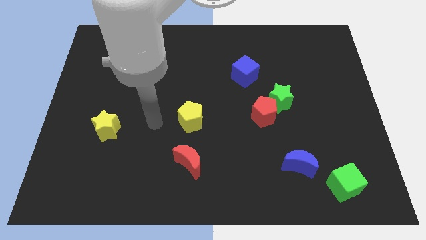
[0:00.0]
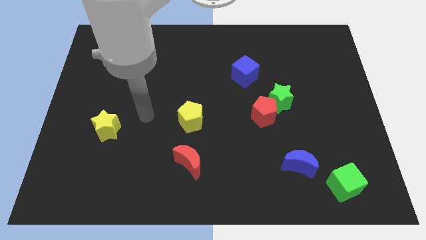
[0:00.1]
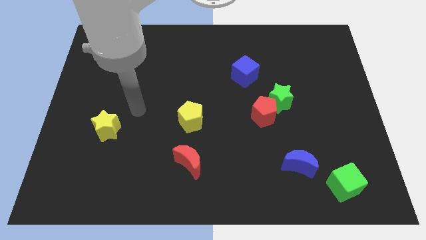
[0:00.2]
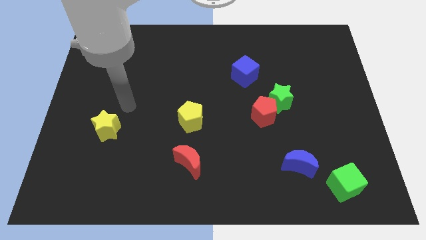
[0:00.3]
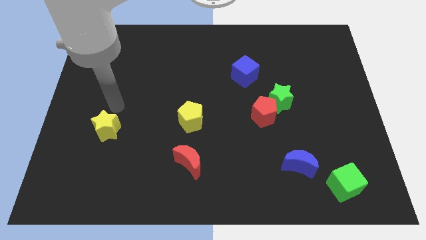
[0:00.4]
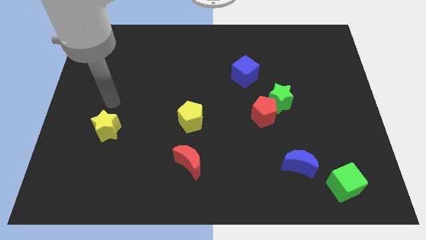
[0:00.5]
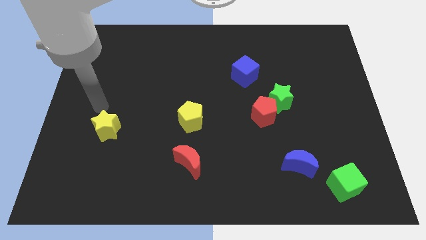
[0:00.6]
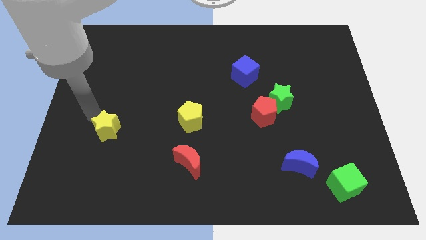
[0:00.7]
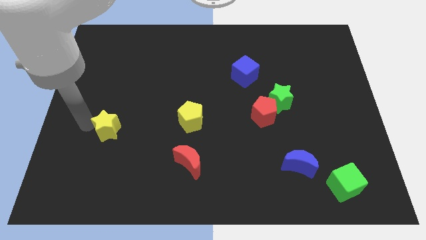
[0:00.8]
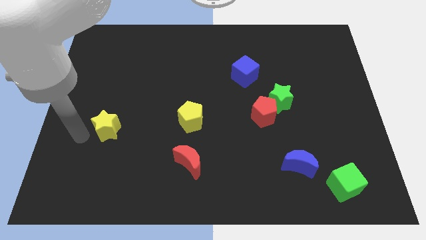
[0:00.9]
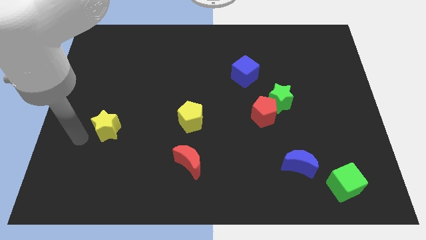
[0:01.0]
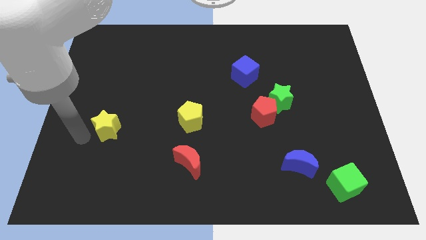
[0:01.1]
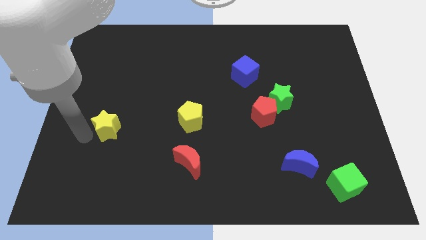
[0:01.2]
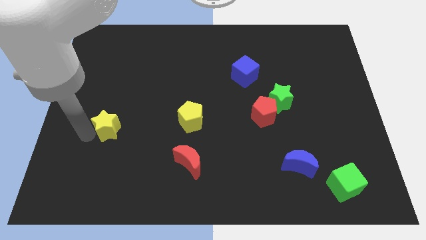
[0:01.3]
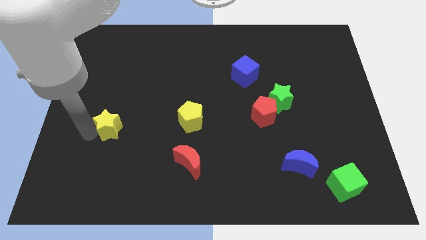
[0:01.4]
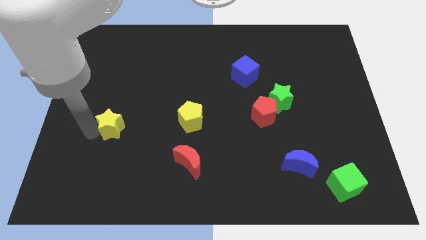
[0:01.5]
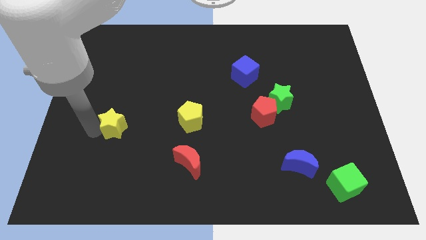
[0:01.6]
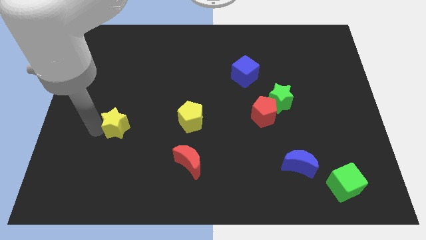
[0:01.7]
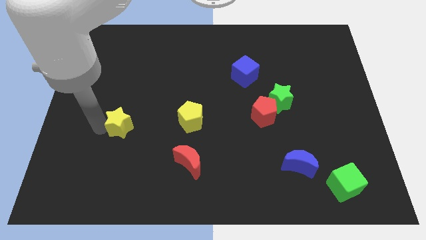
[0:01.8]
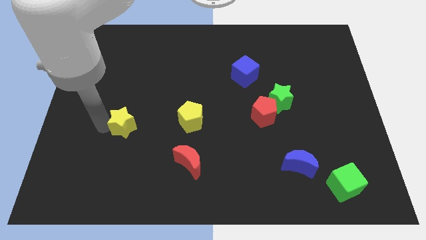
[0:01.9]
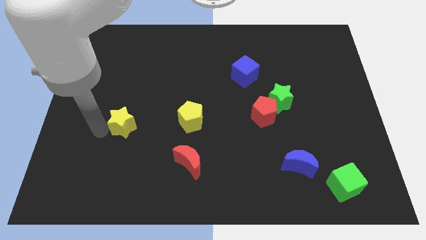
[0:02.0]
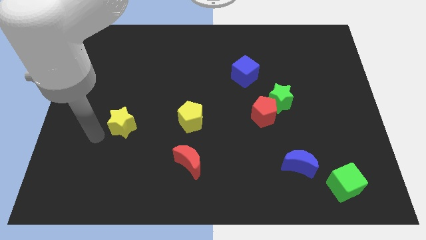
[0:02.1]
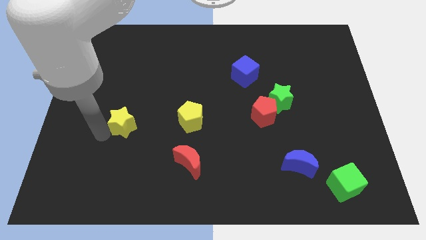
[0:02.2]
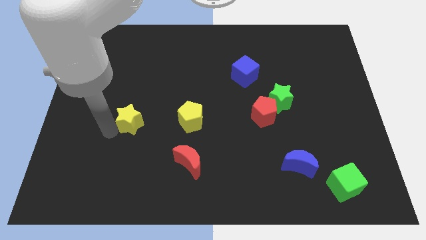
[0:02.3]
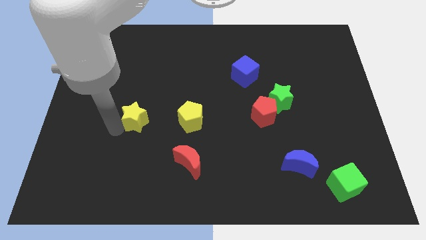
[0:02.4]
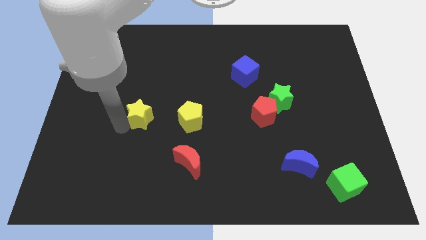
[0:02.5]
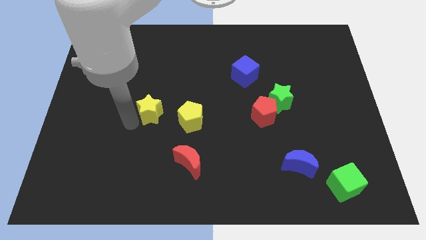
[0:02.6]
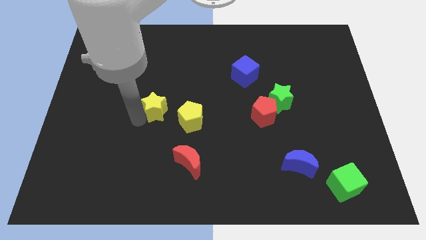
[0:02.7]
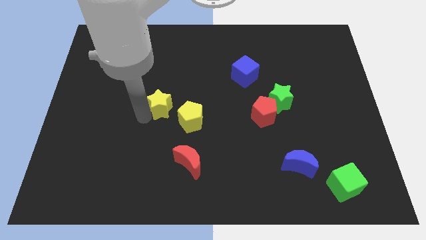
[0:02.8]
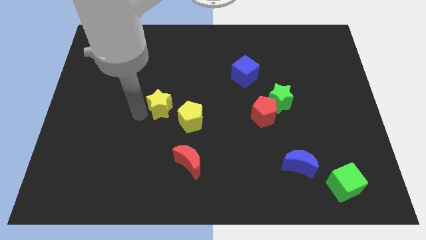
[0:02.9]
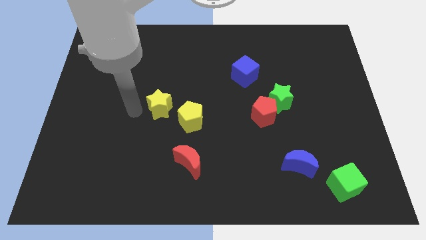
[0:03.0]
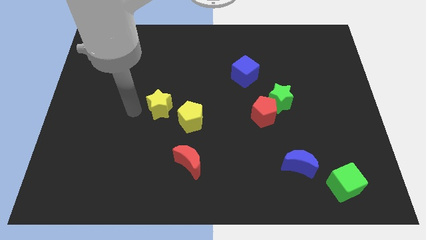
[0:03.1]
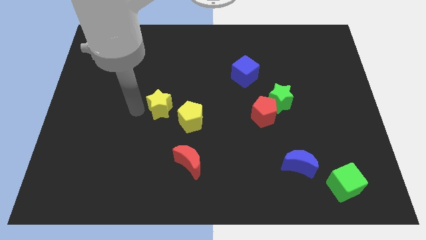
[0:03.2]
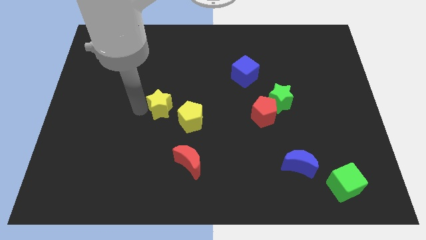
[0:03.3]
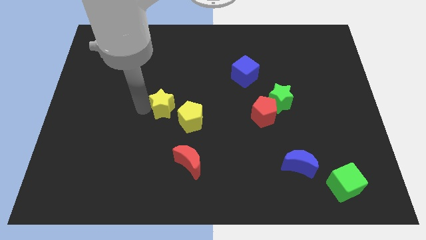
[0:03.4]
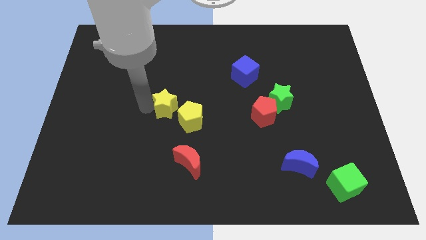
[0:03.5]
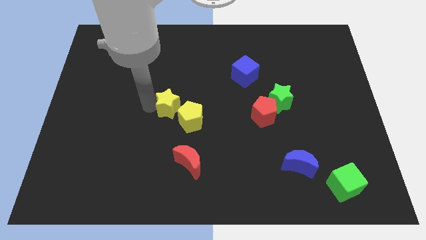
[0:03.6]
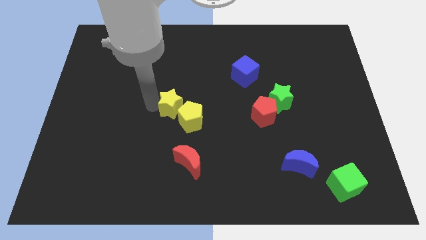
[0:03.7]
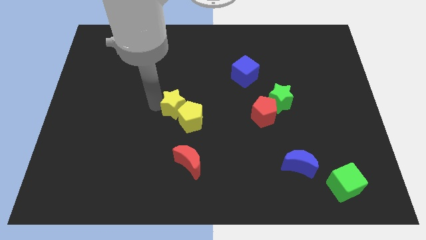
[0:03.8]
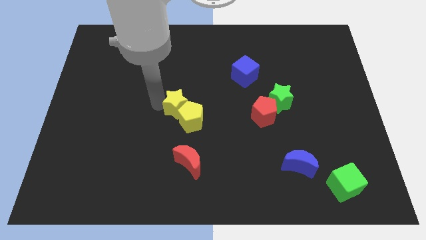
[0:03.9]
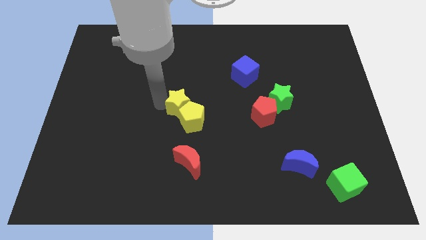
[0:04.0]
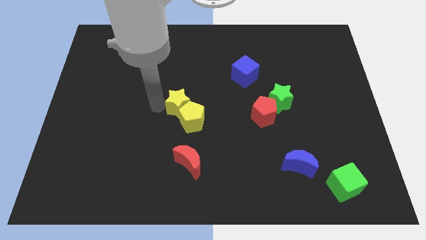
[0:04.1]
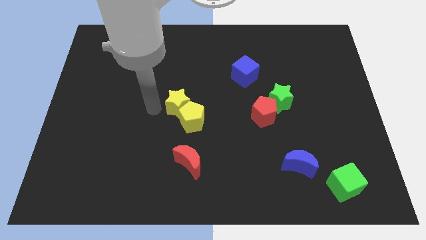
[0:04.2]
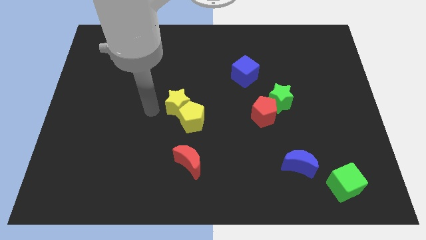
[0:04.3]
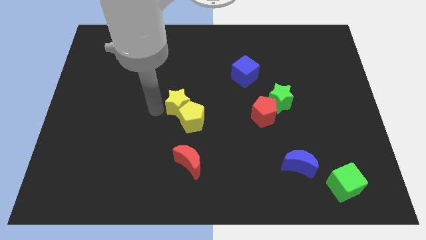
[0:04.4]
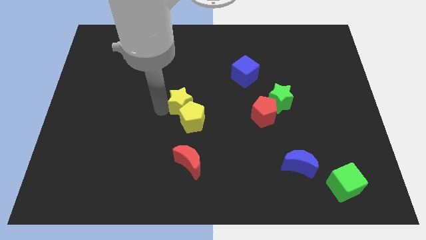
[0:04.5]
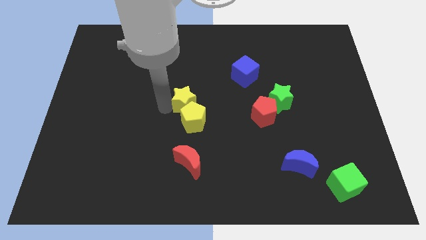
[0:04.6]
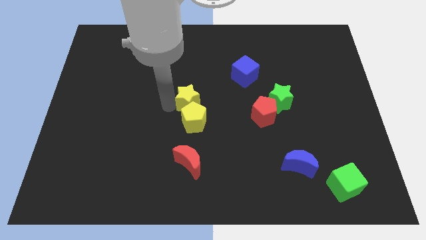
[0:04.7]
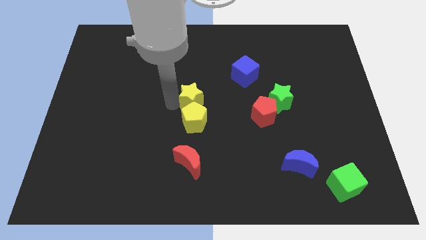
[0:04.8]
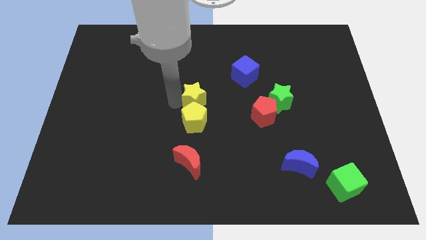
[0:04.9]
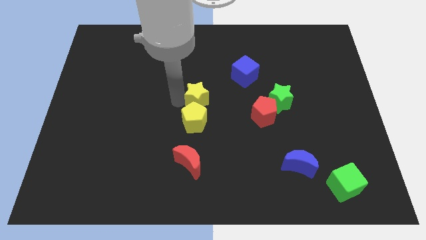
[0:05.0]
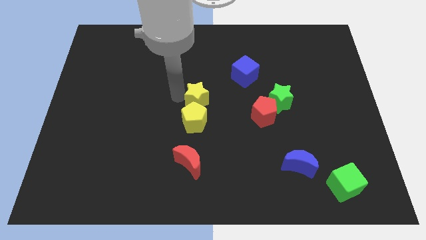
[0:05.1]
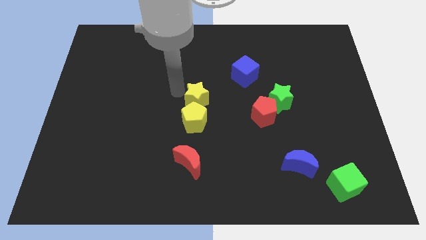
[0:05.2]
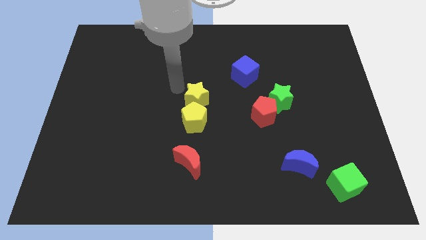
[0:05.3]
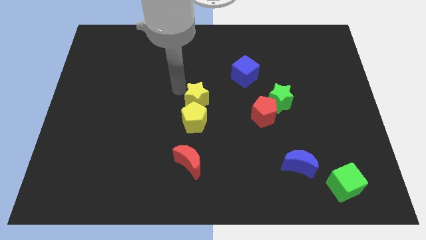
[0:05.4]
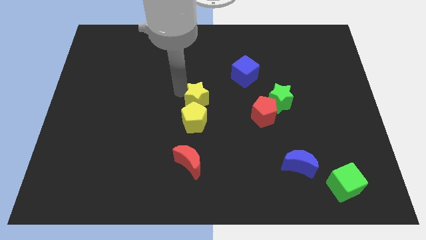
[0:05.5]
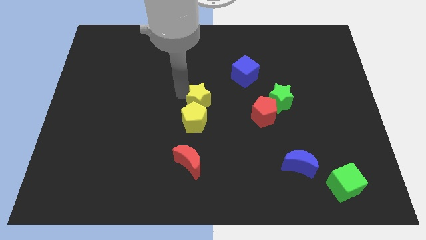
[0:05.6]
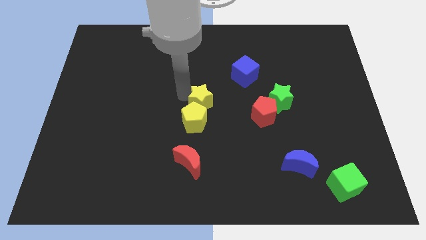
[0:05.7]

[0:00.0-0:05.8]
put the yellow star to the left side of the red pentagon

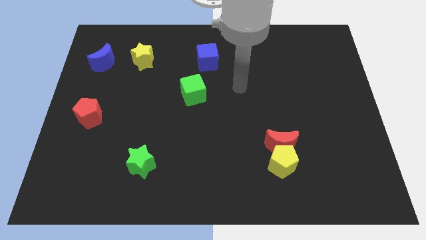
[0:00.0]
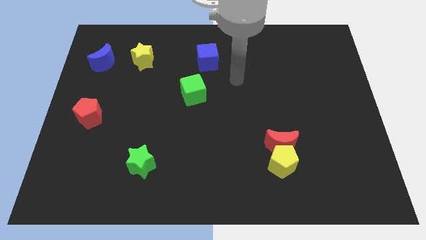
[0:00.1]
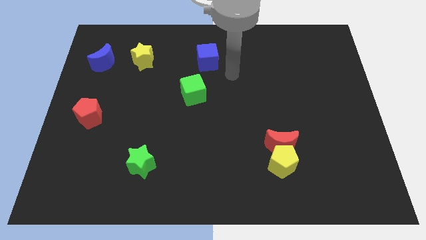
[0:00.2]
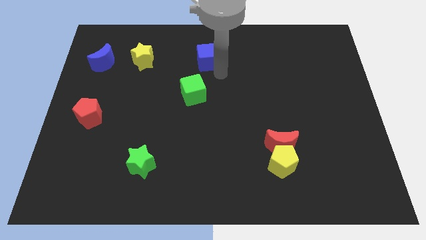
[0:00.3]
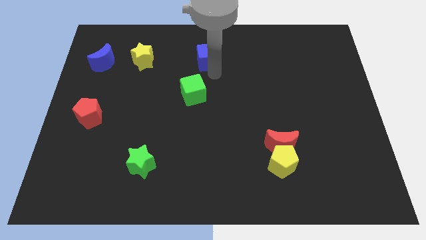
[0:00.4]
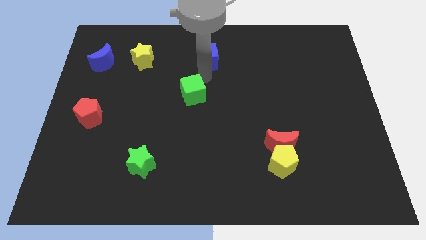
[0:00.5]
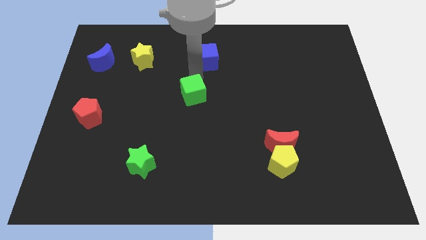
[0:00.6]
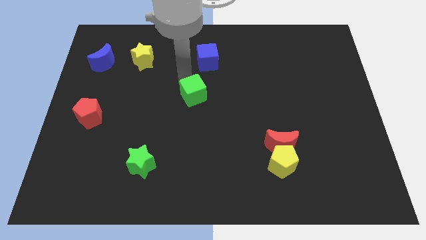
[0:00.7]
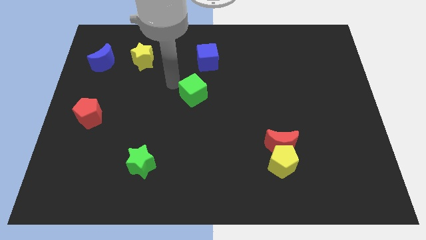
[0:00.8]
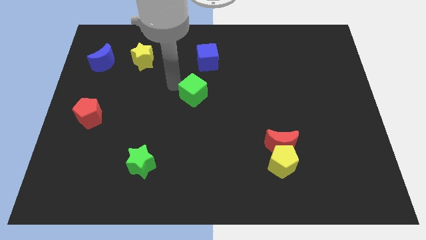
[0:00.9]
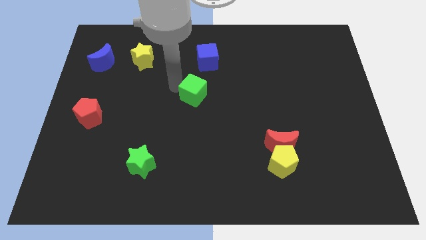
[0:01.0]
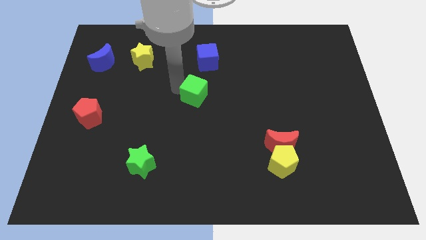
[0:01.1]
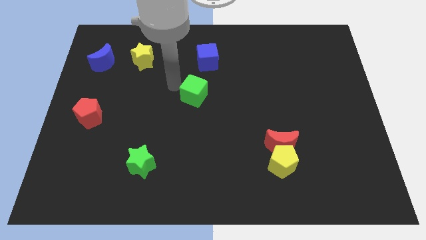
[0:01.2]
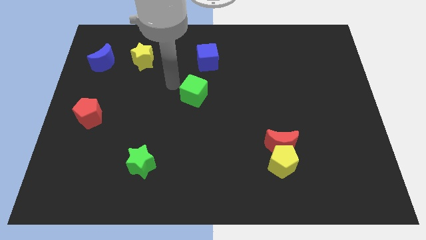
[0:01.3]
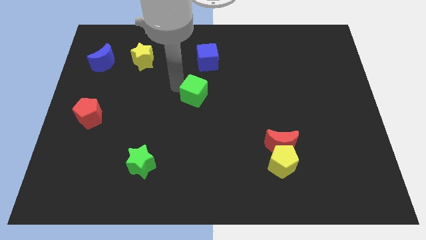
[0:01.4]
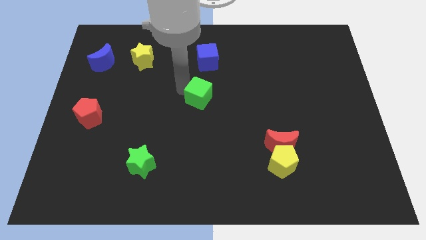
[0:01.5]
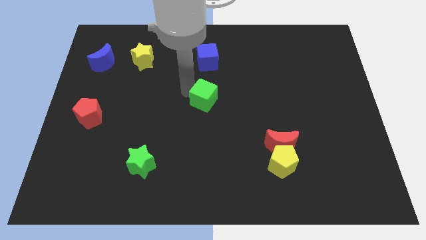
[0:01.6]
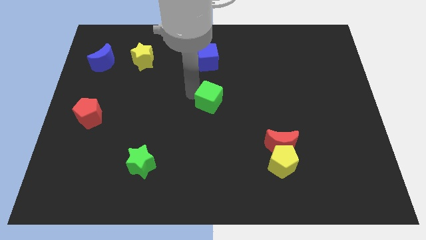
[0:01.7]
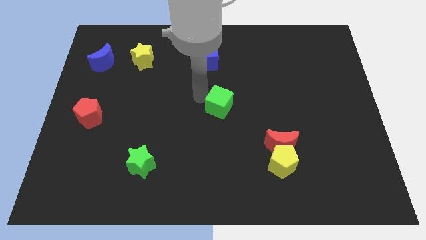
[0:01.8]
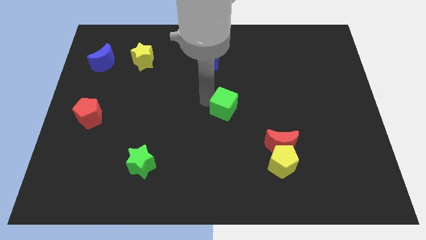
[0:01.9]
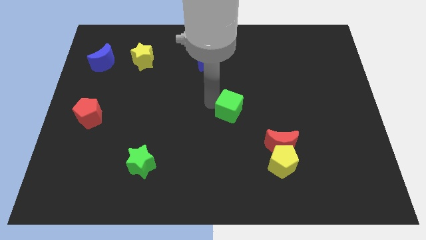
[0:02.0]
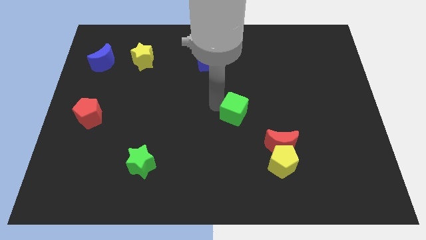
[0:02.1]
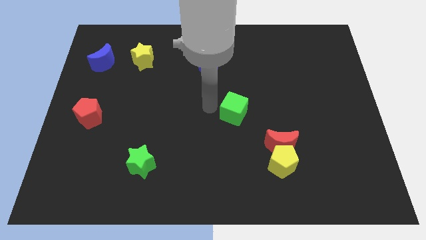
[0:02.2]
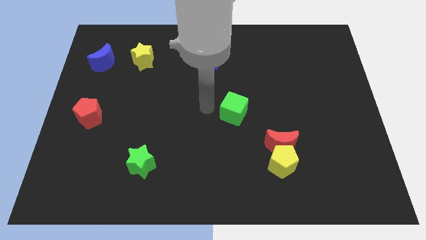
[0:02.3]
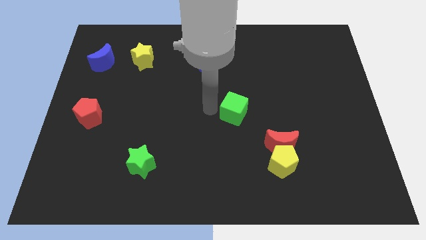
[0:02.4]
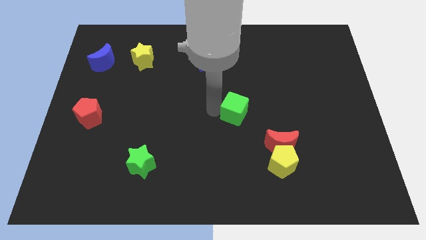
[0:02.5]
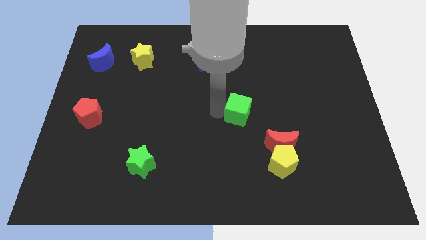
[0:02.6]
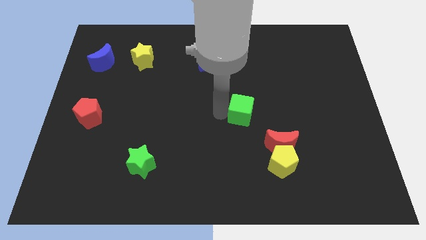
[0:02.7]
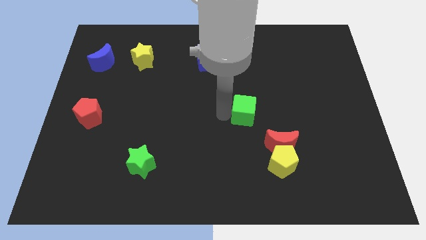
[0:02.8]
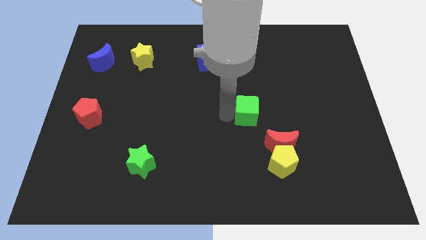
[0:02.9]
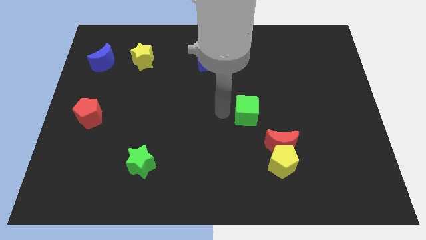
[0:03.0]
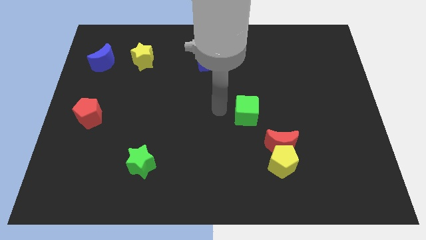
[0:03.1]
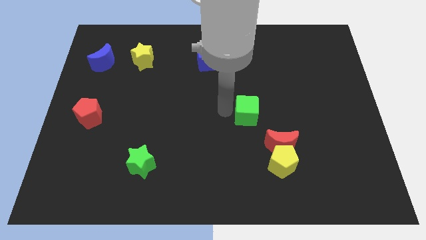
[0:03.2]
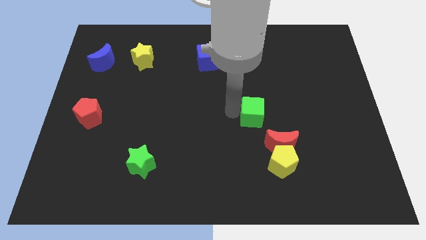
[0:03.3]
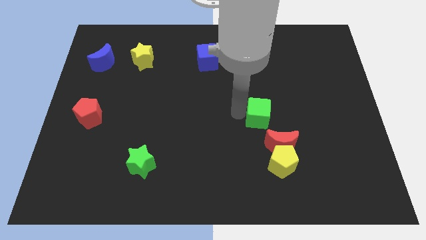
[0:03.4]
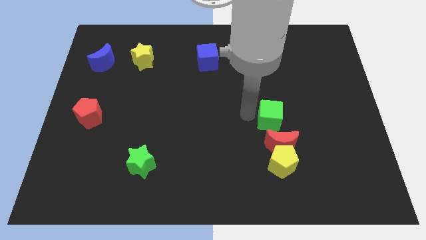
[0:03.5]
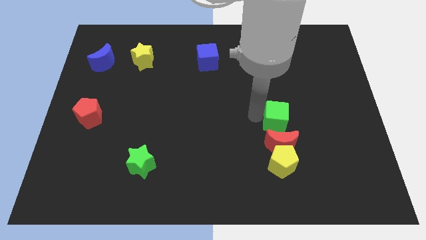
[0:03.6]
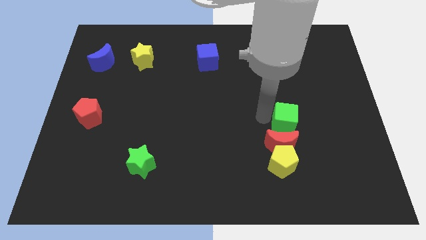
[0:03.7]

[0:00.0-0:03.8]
push the green cube diagonally up and to the right of the red moon
